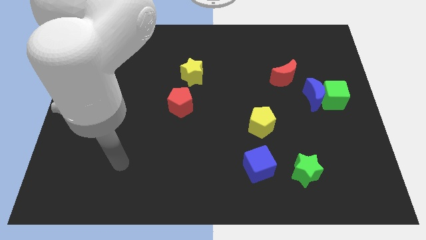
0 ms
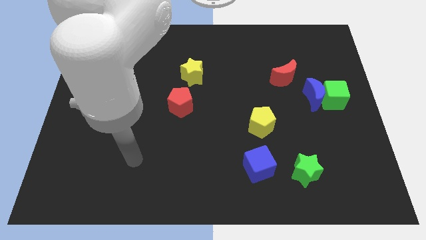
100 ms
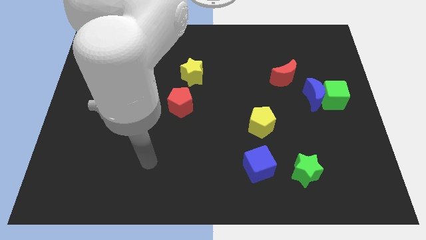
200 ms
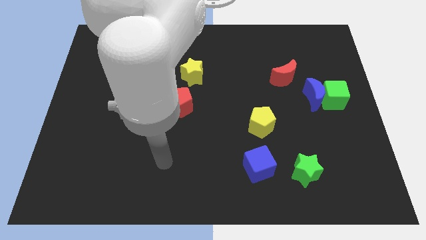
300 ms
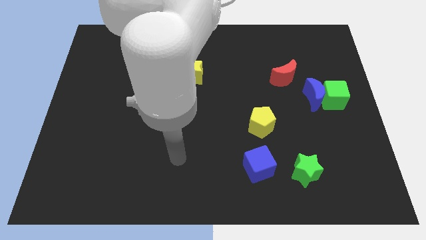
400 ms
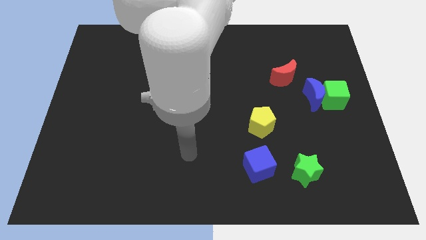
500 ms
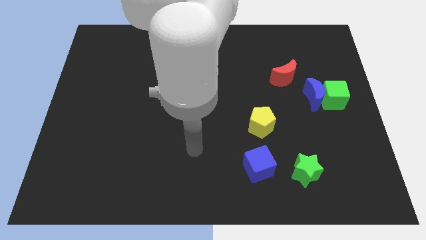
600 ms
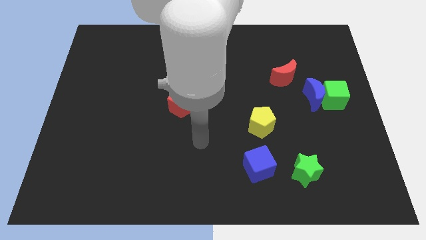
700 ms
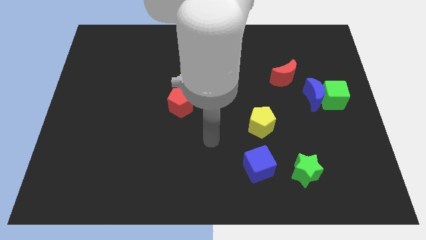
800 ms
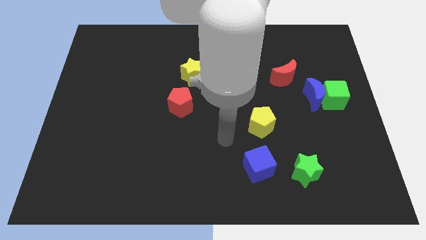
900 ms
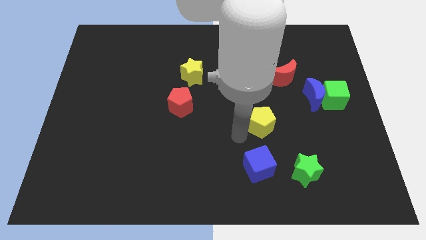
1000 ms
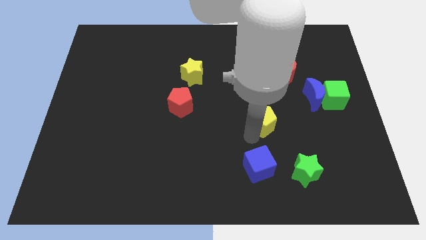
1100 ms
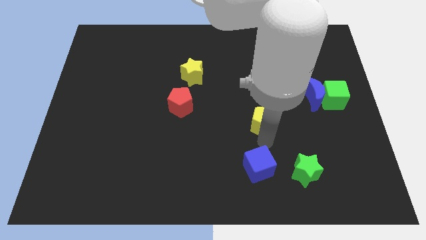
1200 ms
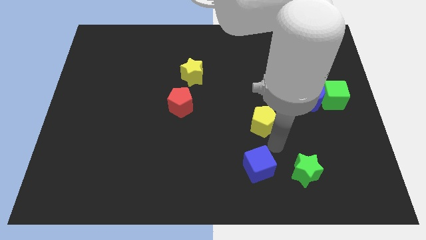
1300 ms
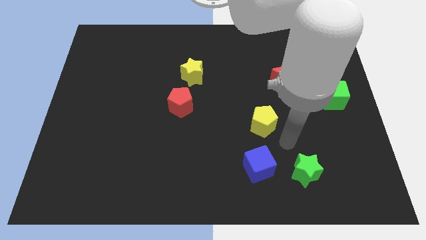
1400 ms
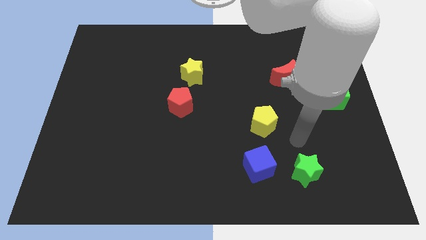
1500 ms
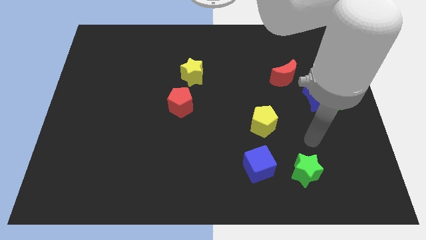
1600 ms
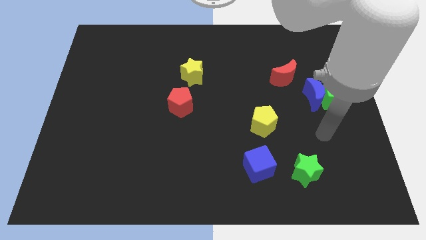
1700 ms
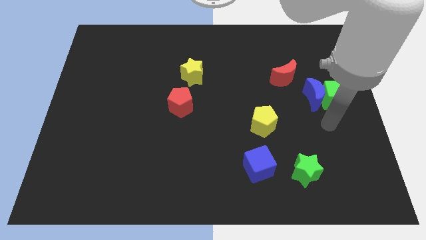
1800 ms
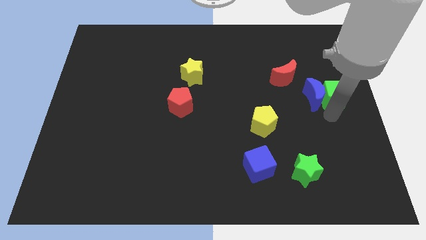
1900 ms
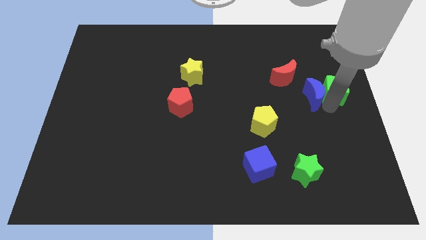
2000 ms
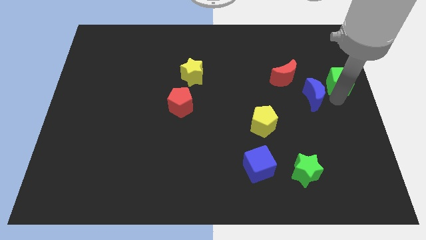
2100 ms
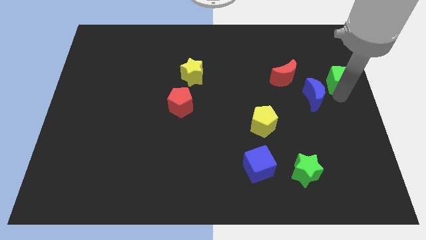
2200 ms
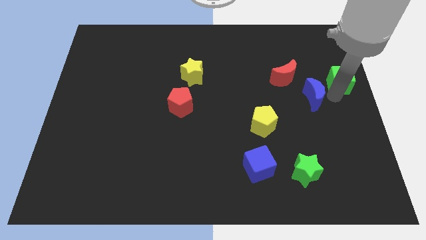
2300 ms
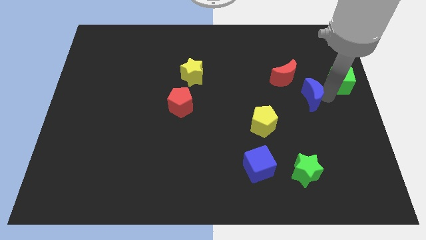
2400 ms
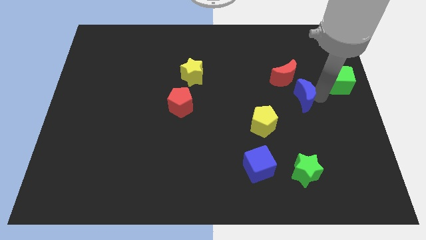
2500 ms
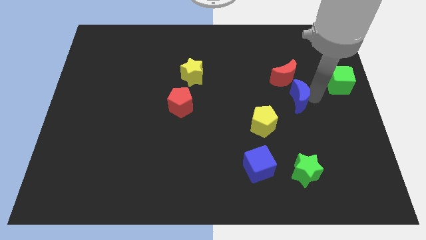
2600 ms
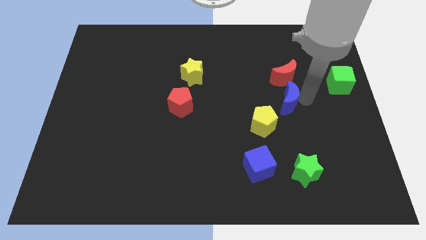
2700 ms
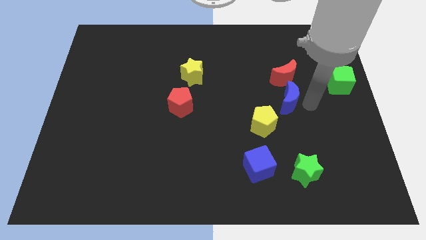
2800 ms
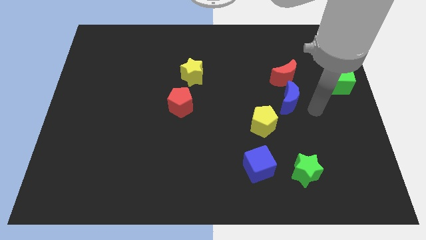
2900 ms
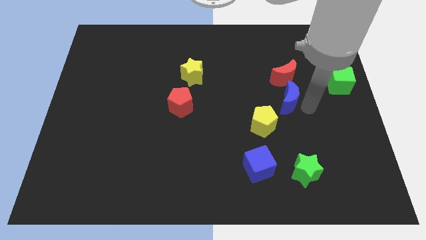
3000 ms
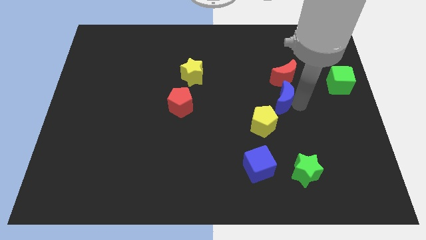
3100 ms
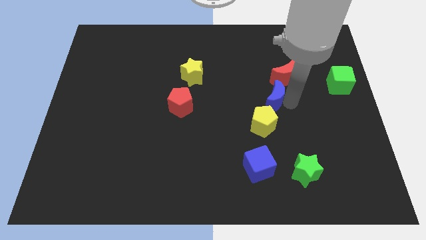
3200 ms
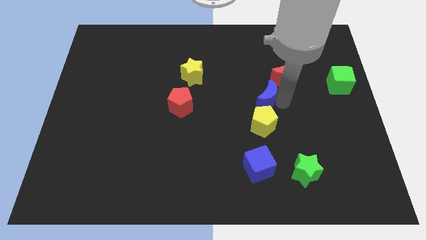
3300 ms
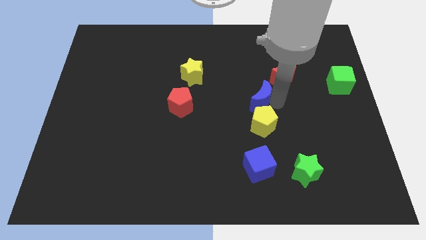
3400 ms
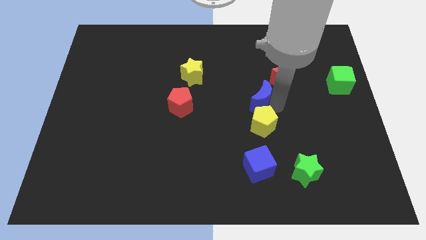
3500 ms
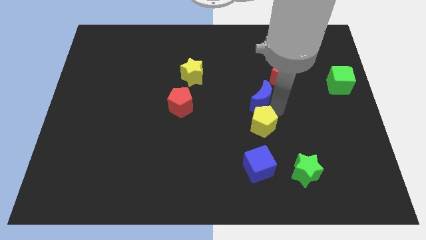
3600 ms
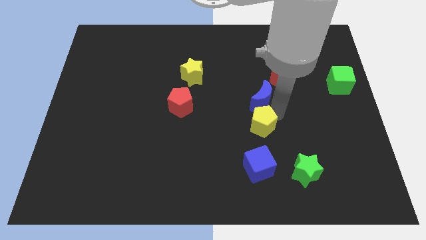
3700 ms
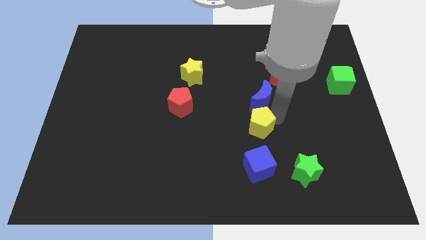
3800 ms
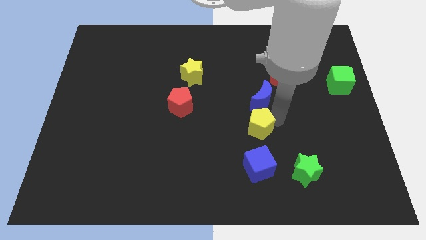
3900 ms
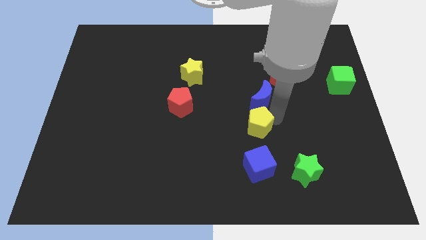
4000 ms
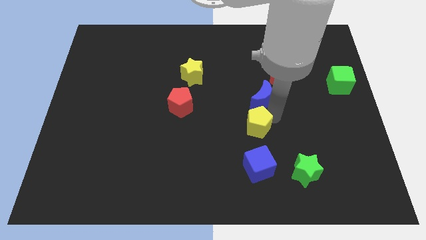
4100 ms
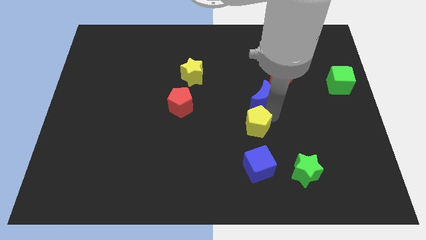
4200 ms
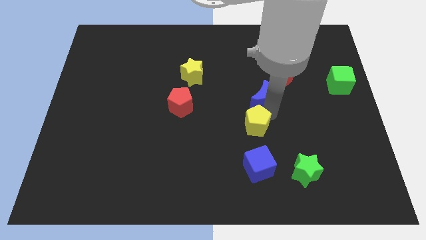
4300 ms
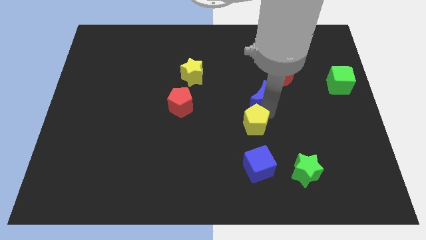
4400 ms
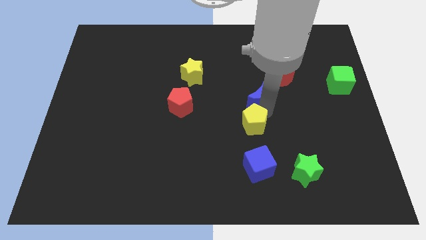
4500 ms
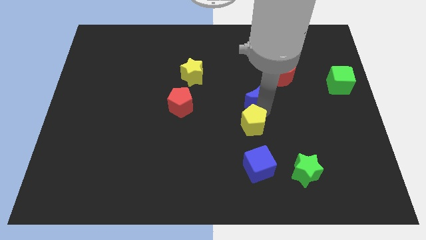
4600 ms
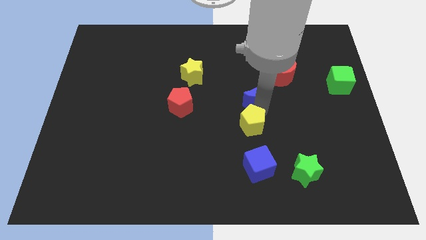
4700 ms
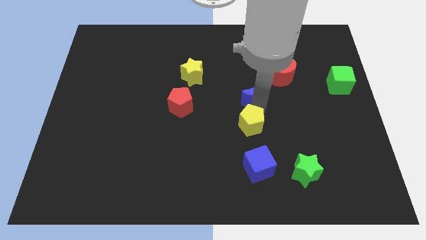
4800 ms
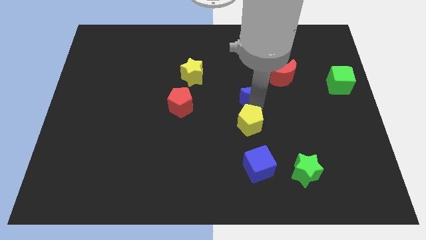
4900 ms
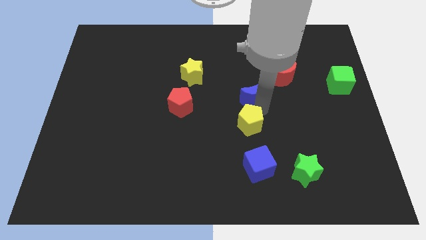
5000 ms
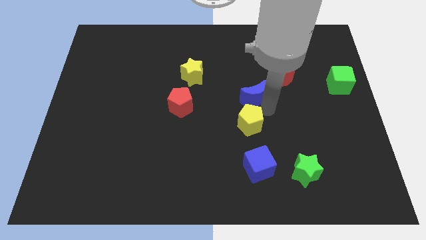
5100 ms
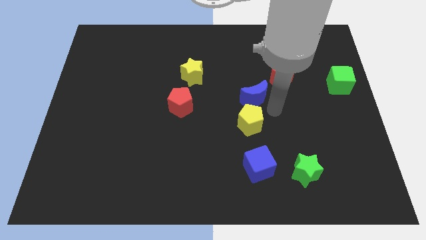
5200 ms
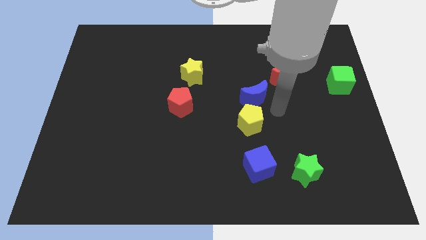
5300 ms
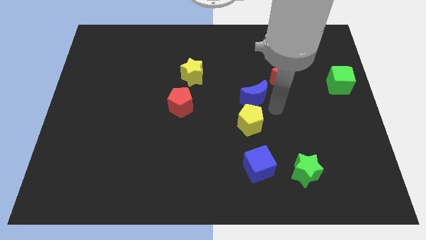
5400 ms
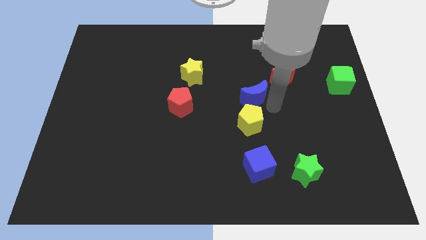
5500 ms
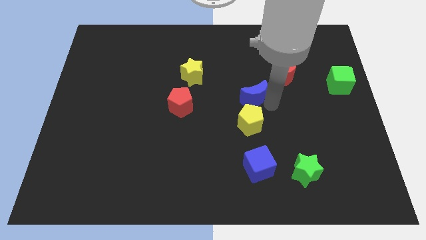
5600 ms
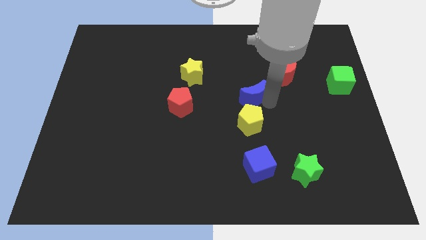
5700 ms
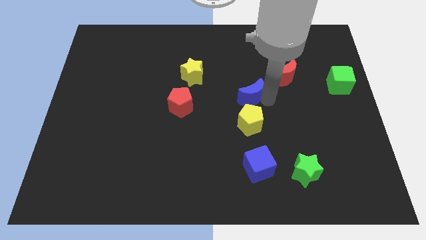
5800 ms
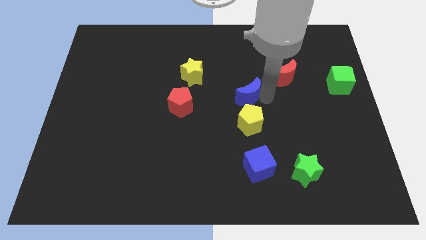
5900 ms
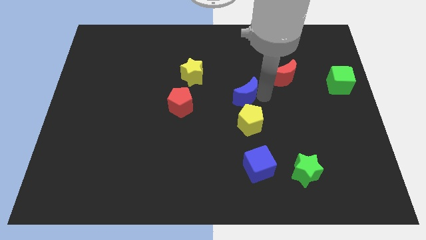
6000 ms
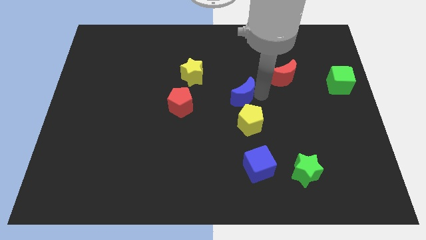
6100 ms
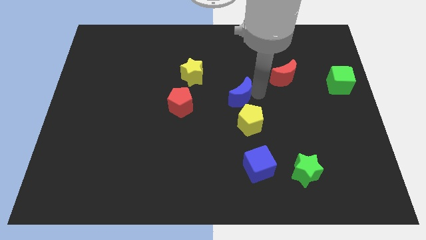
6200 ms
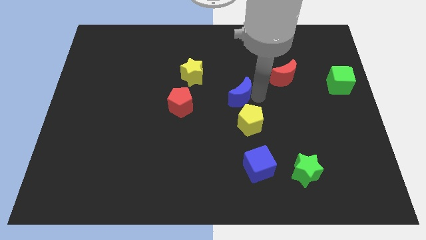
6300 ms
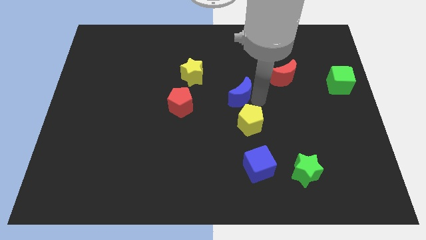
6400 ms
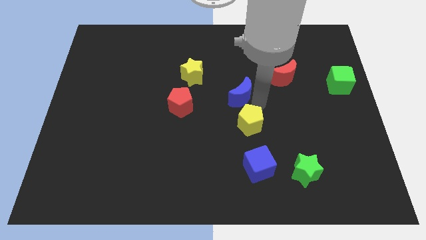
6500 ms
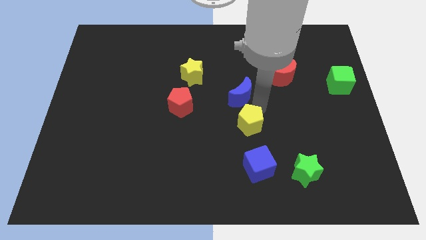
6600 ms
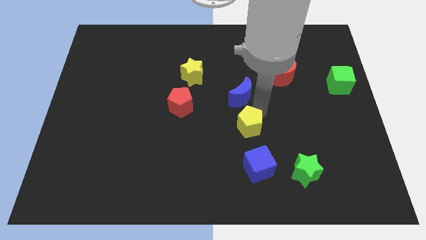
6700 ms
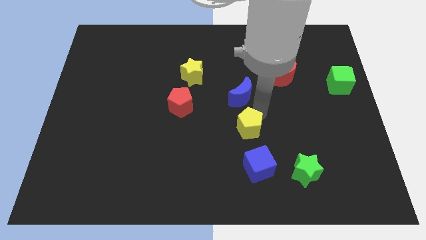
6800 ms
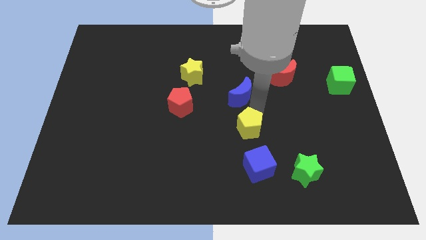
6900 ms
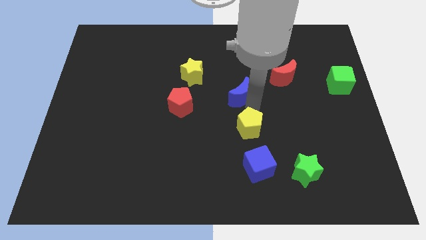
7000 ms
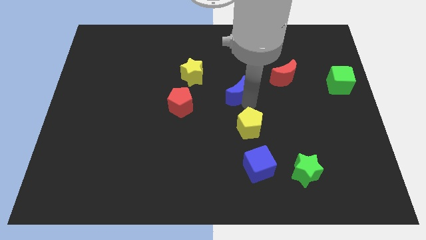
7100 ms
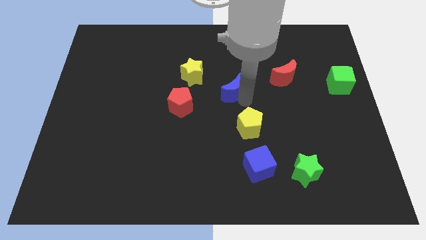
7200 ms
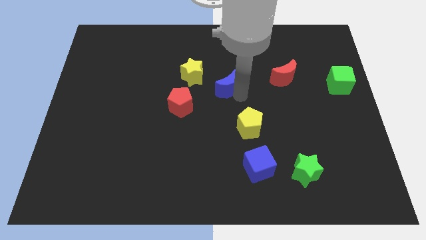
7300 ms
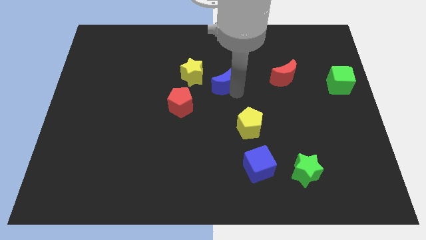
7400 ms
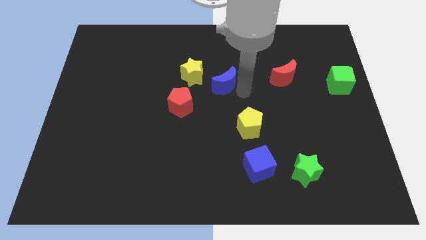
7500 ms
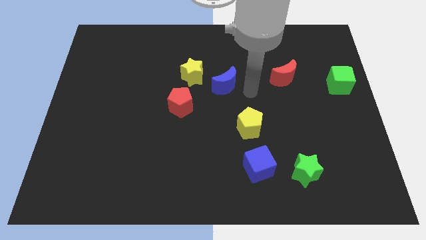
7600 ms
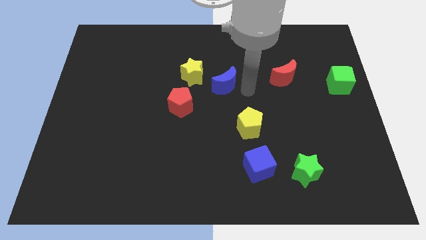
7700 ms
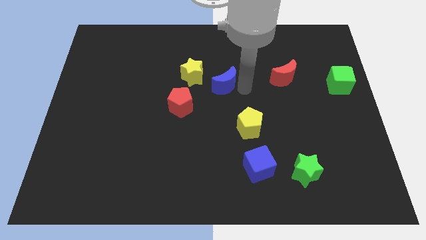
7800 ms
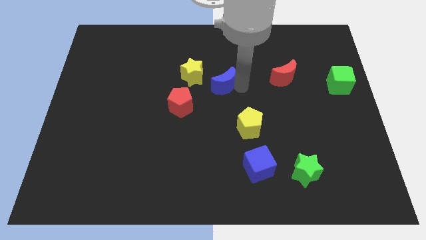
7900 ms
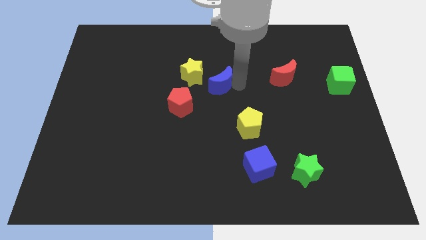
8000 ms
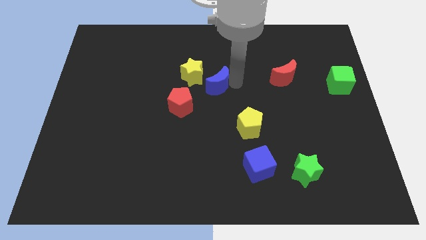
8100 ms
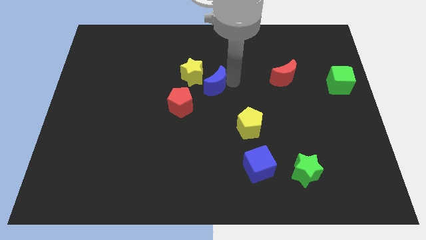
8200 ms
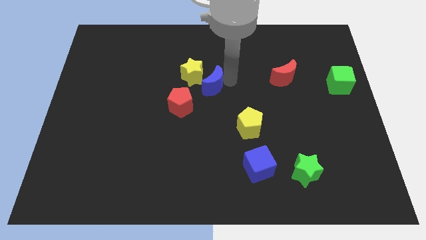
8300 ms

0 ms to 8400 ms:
move the blue moon to the yellow star
